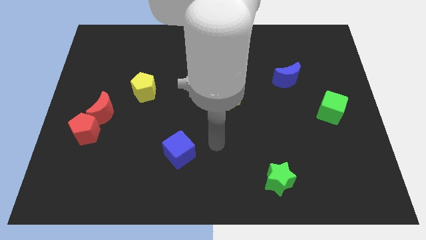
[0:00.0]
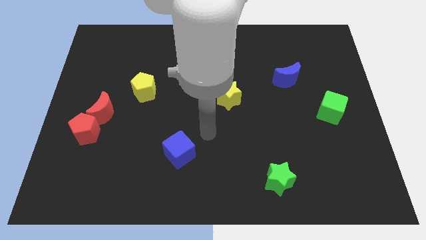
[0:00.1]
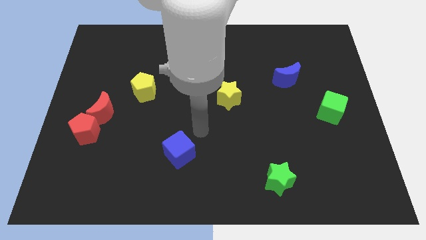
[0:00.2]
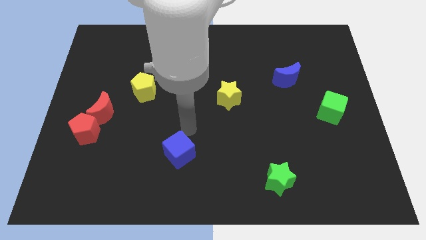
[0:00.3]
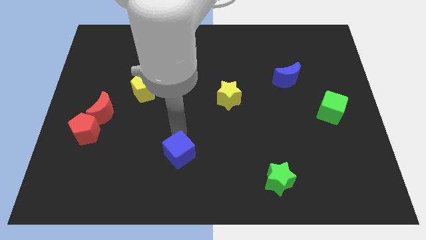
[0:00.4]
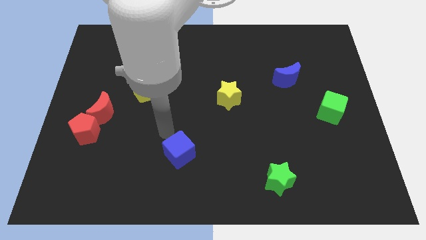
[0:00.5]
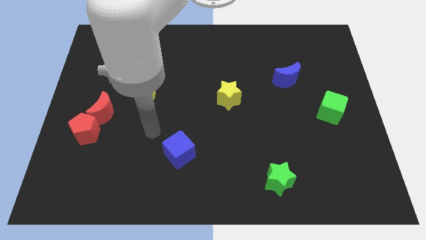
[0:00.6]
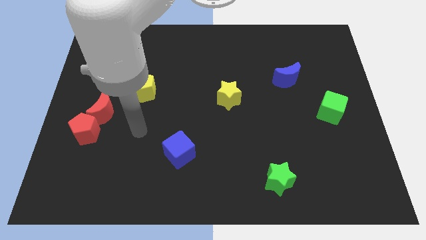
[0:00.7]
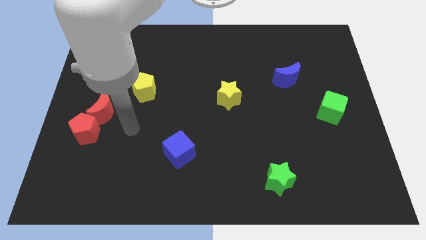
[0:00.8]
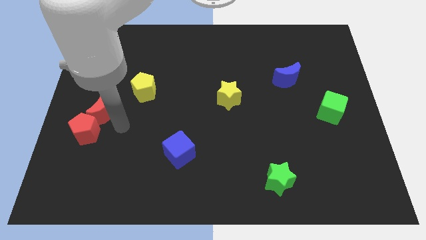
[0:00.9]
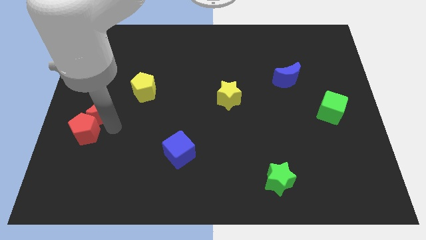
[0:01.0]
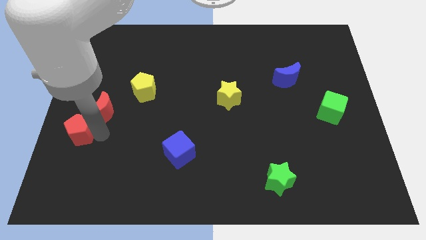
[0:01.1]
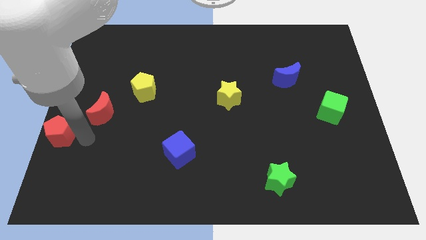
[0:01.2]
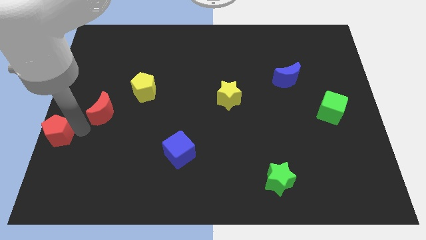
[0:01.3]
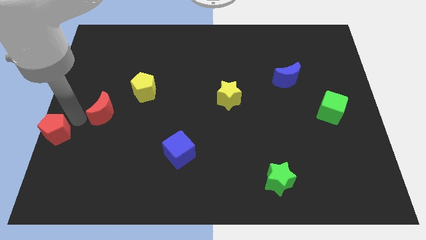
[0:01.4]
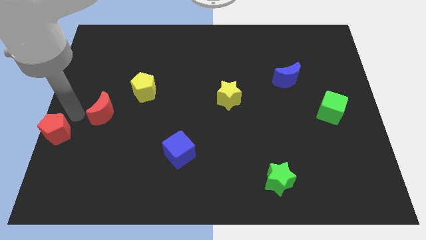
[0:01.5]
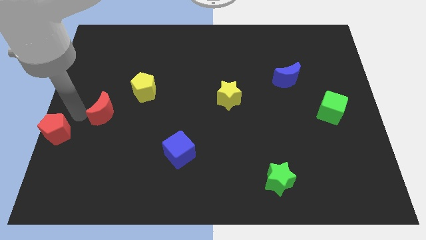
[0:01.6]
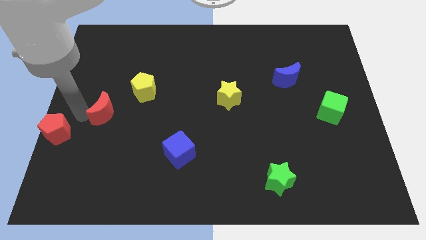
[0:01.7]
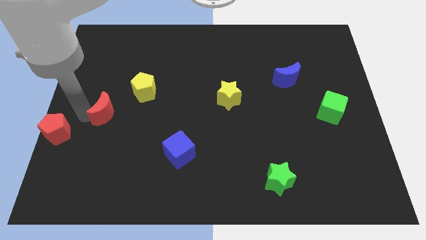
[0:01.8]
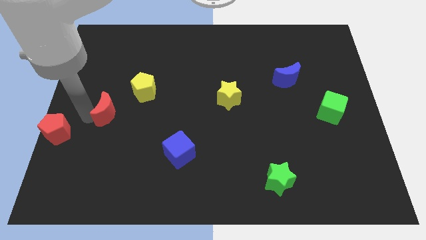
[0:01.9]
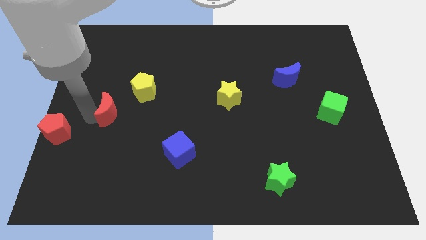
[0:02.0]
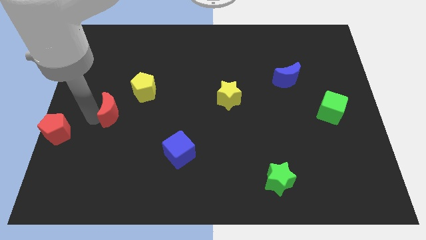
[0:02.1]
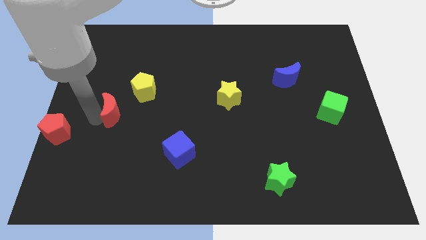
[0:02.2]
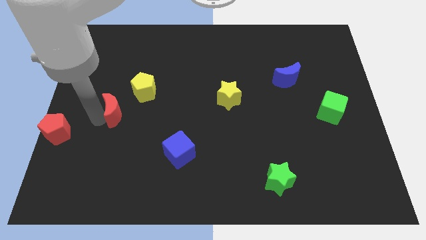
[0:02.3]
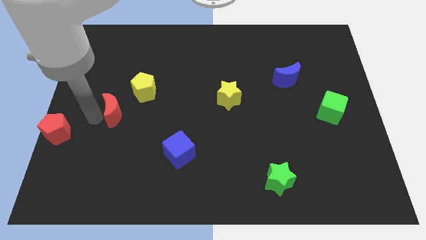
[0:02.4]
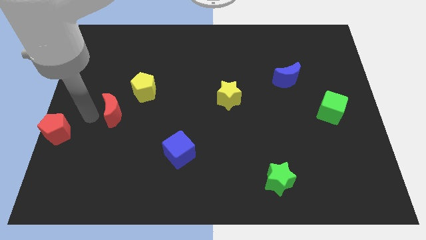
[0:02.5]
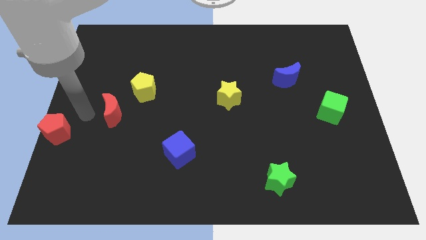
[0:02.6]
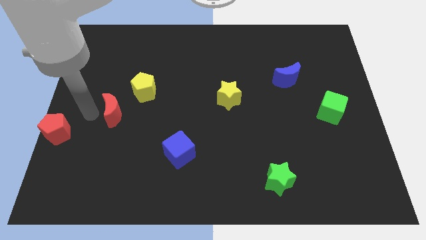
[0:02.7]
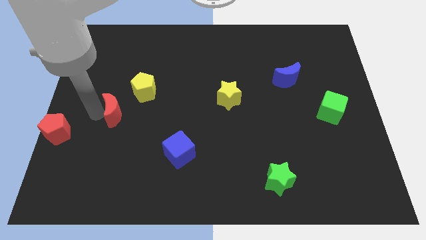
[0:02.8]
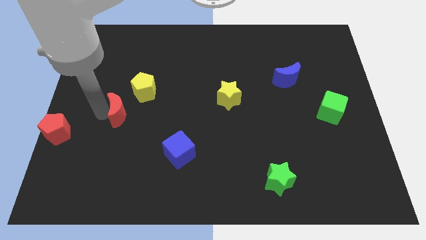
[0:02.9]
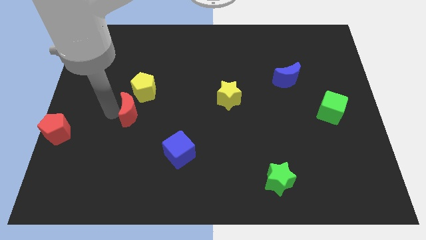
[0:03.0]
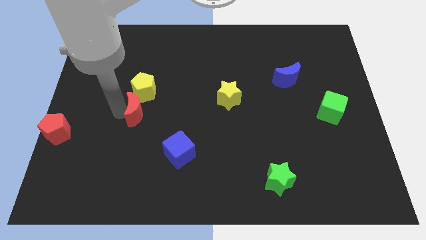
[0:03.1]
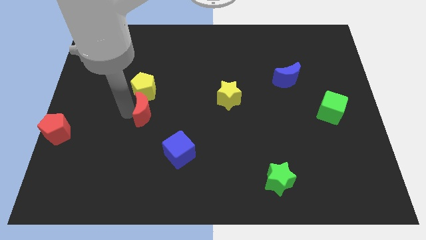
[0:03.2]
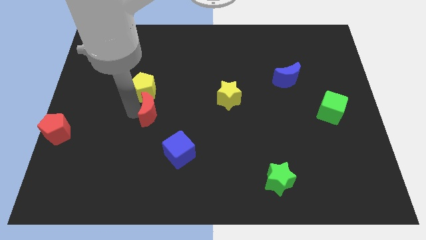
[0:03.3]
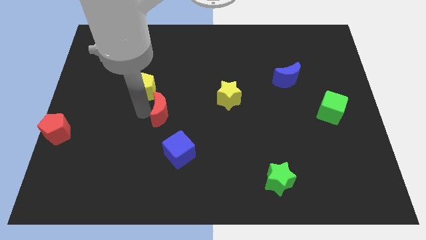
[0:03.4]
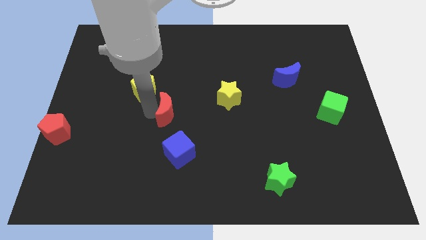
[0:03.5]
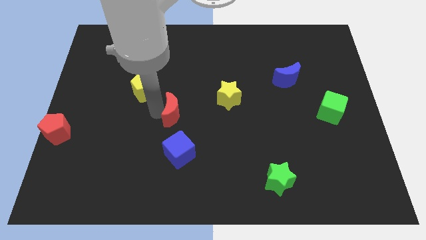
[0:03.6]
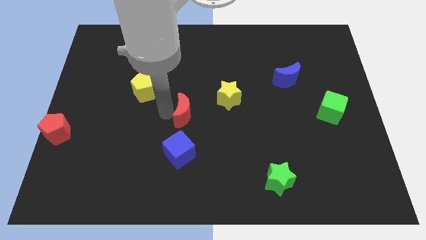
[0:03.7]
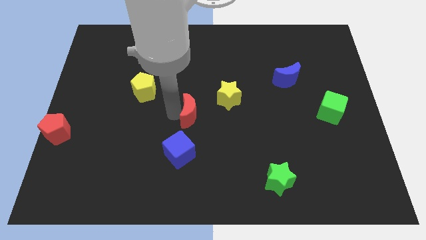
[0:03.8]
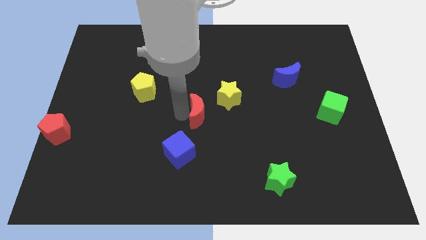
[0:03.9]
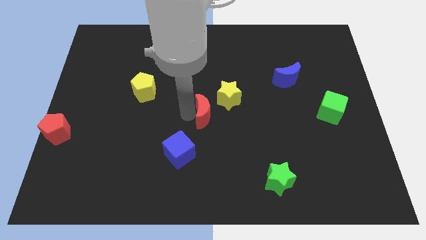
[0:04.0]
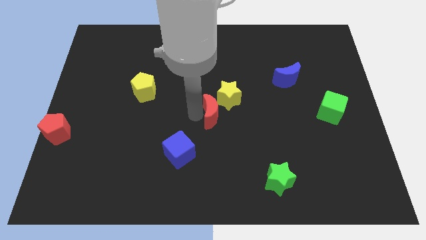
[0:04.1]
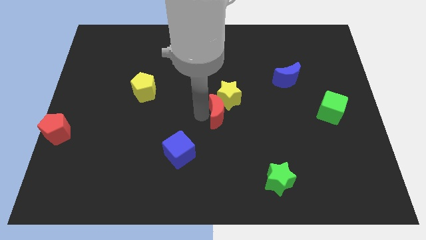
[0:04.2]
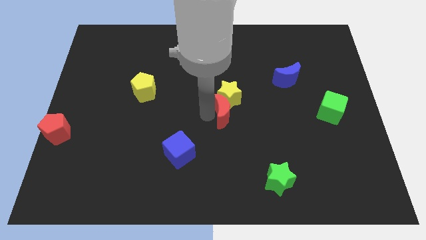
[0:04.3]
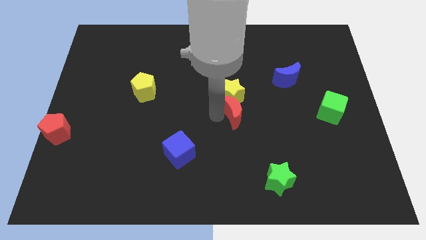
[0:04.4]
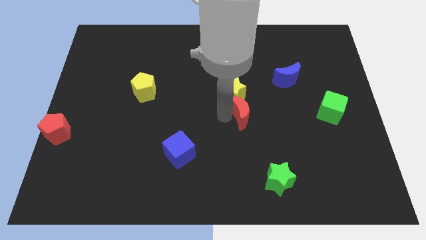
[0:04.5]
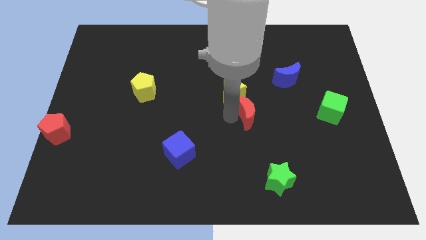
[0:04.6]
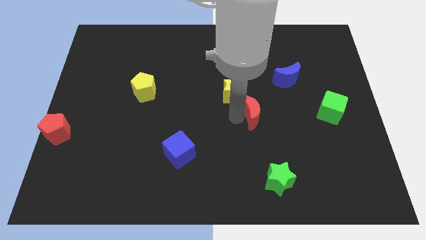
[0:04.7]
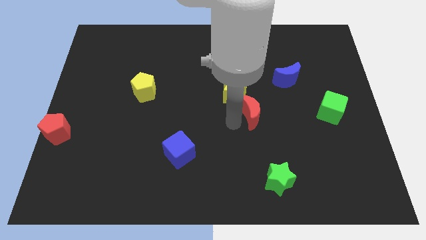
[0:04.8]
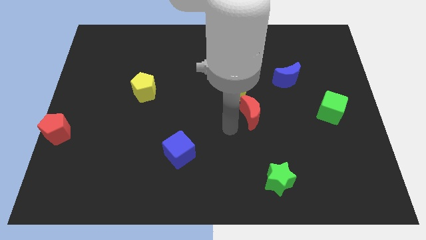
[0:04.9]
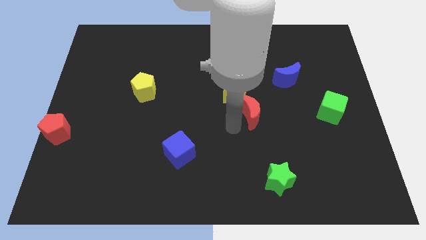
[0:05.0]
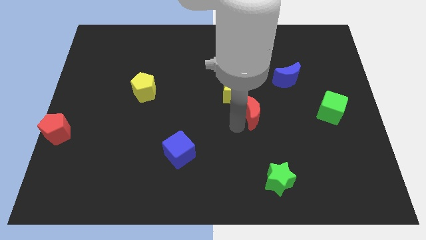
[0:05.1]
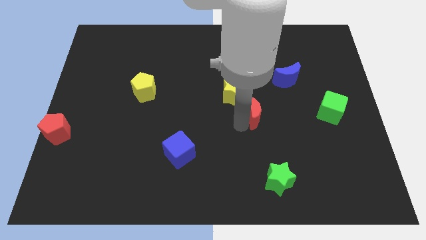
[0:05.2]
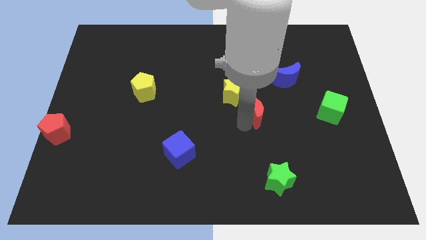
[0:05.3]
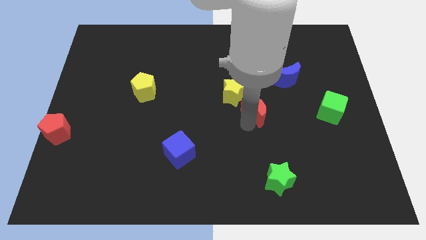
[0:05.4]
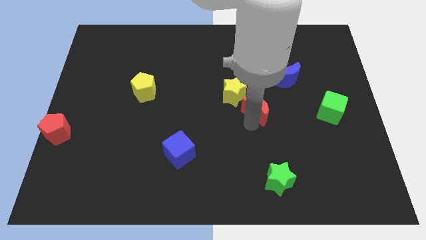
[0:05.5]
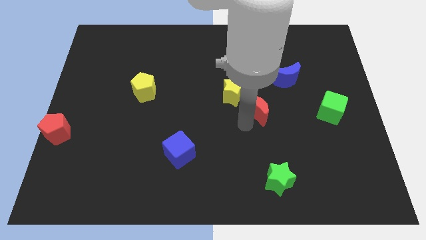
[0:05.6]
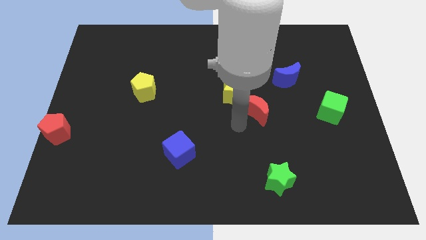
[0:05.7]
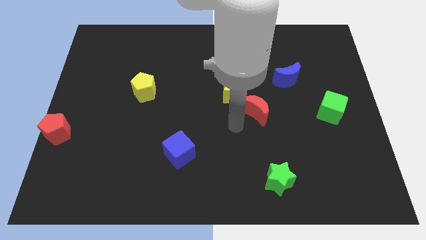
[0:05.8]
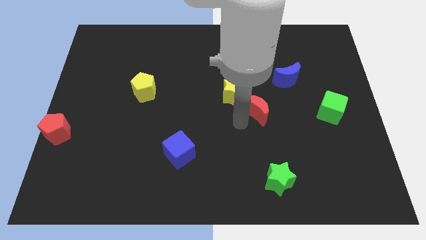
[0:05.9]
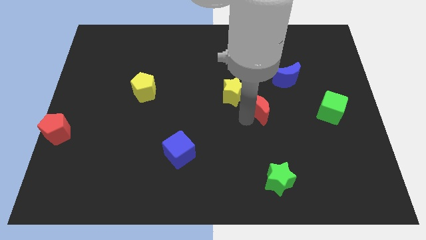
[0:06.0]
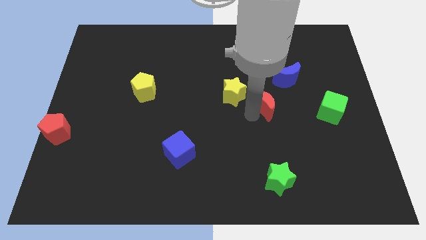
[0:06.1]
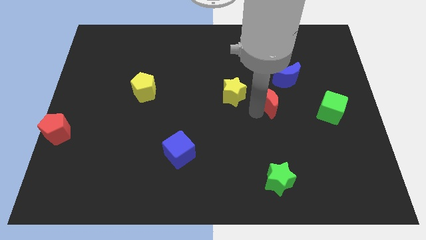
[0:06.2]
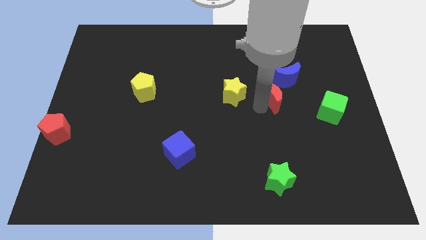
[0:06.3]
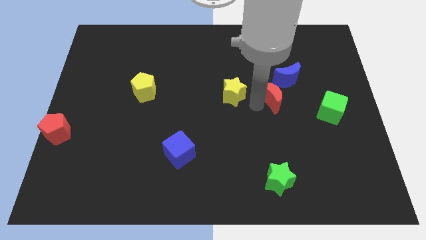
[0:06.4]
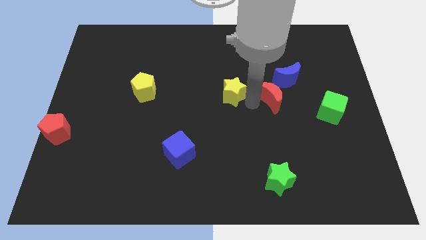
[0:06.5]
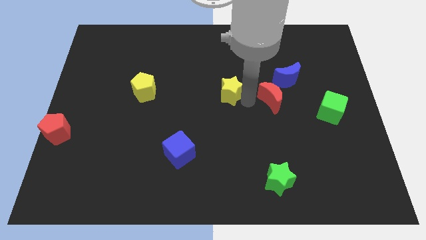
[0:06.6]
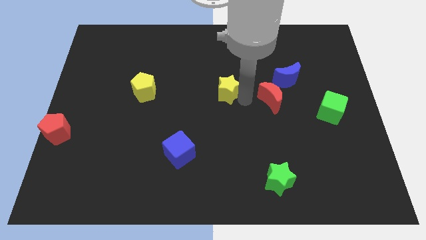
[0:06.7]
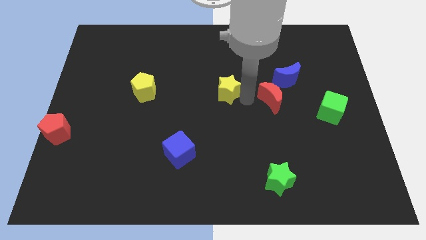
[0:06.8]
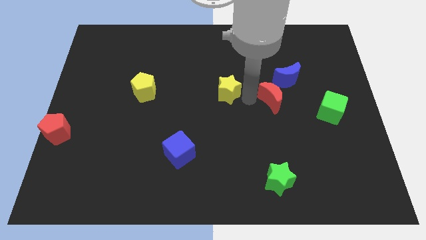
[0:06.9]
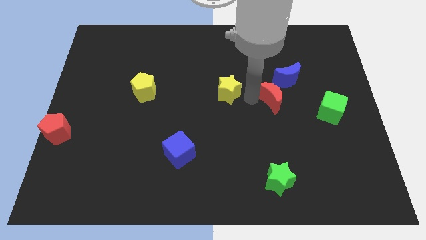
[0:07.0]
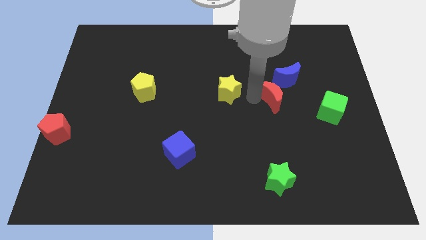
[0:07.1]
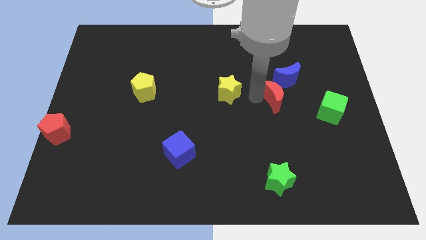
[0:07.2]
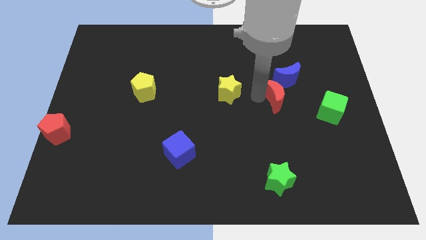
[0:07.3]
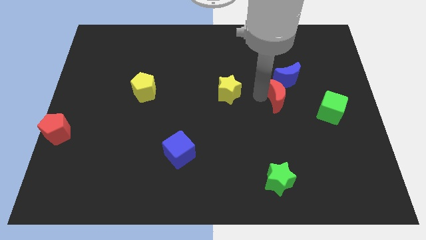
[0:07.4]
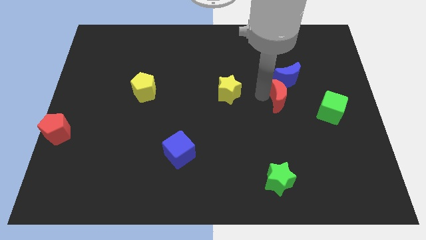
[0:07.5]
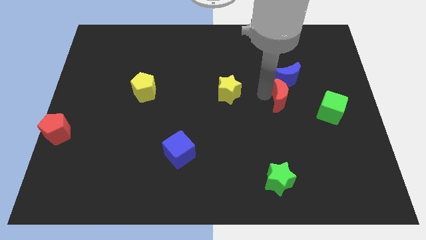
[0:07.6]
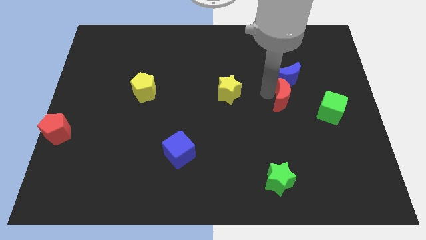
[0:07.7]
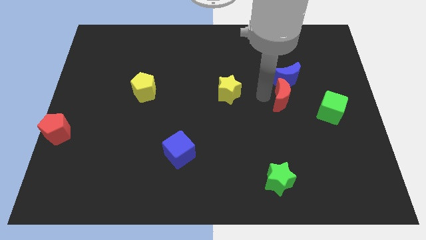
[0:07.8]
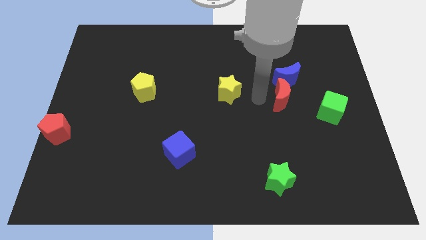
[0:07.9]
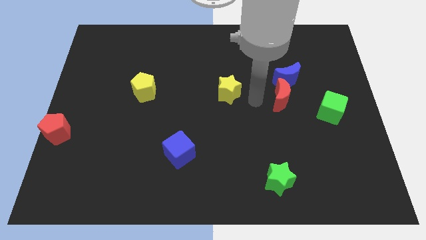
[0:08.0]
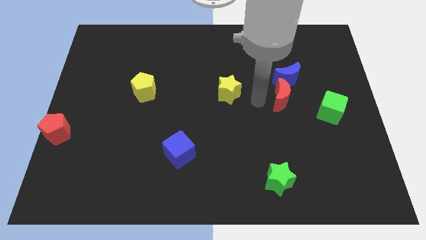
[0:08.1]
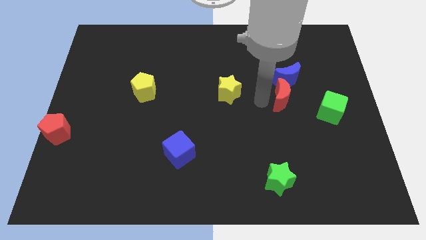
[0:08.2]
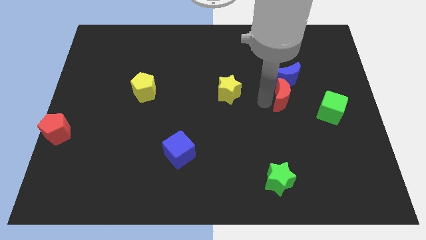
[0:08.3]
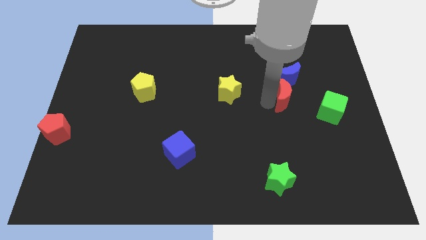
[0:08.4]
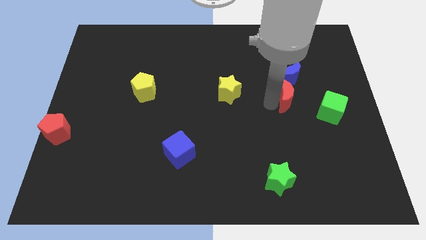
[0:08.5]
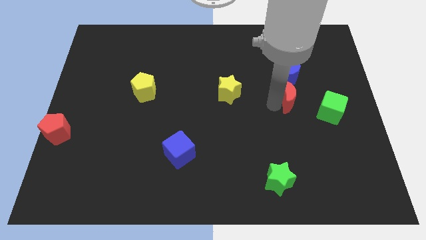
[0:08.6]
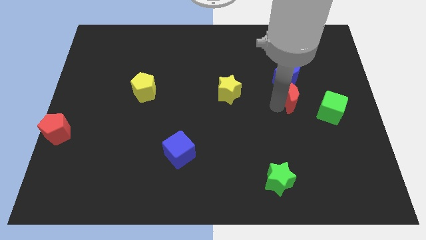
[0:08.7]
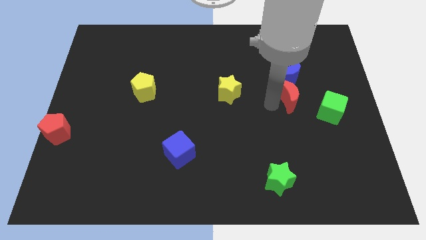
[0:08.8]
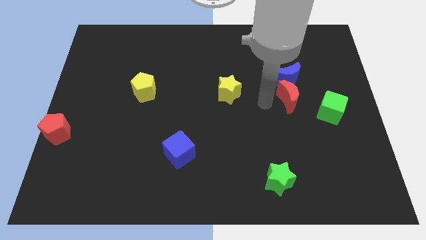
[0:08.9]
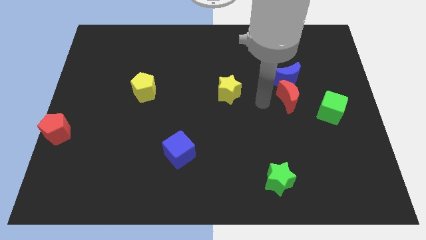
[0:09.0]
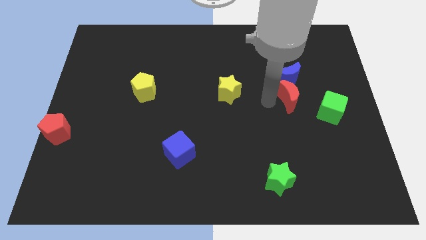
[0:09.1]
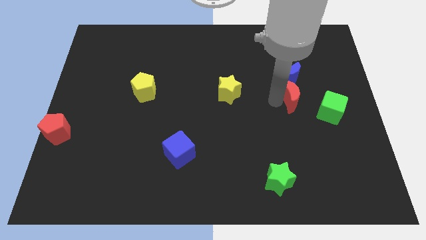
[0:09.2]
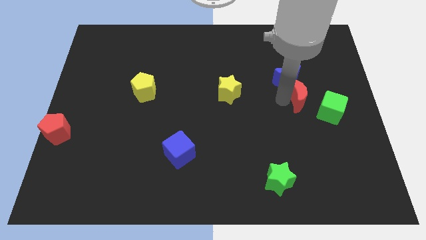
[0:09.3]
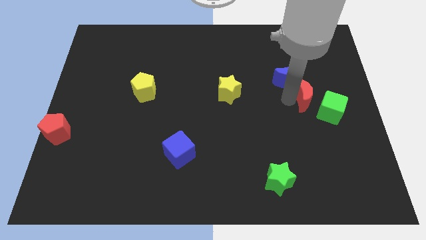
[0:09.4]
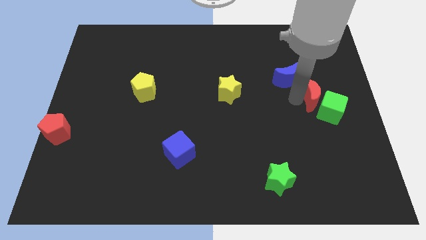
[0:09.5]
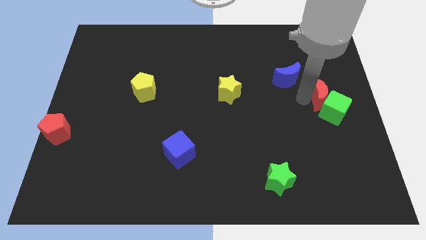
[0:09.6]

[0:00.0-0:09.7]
push the red moon to the right side
